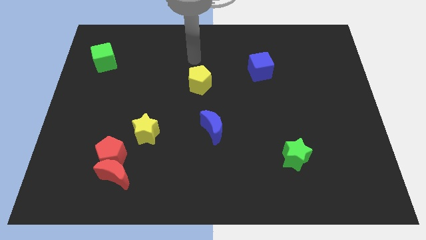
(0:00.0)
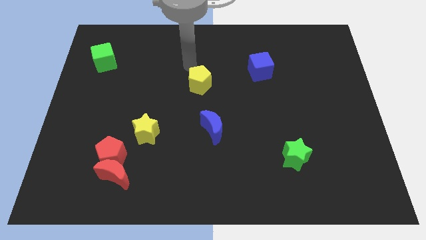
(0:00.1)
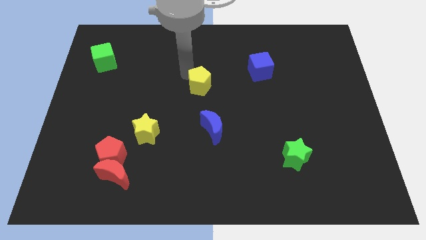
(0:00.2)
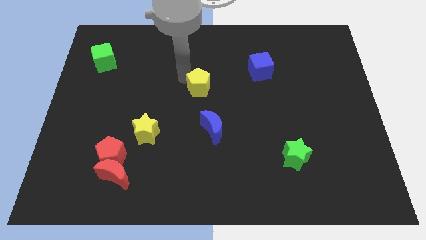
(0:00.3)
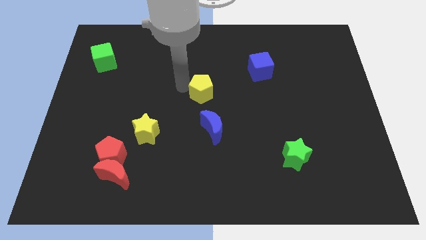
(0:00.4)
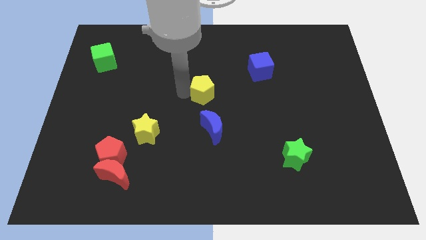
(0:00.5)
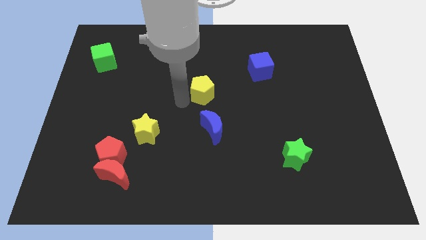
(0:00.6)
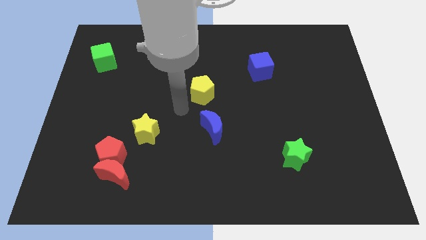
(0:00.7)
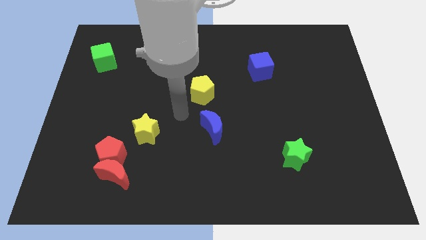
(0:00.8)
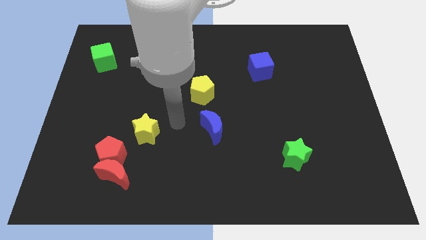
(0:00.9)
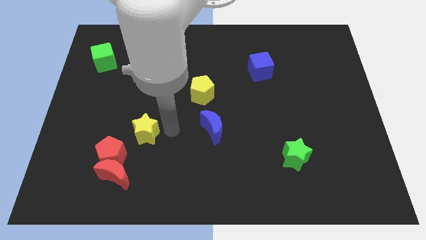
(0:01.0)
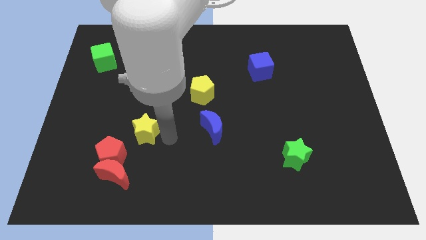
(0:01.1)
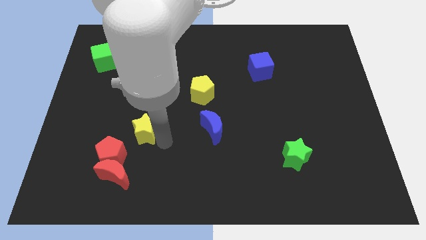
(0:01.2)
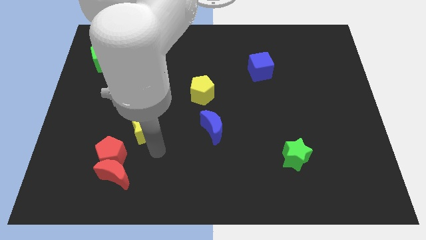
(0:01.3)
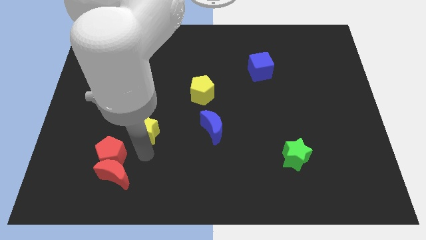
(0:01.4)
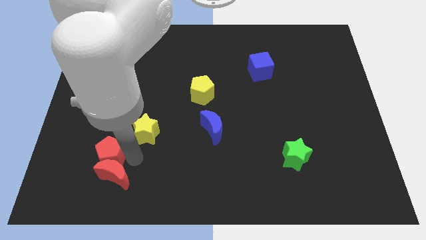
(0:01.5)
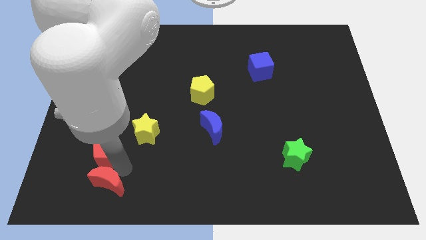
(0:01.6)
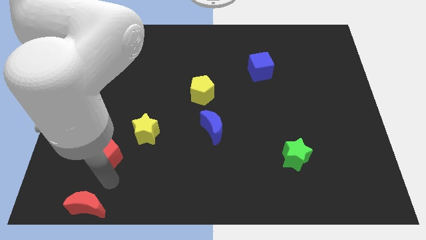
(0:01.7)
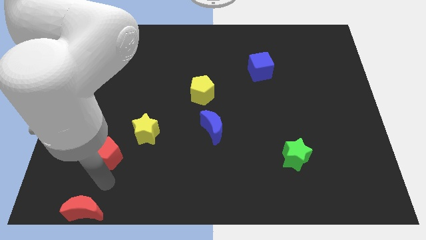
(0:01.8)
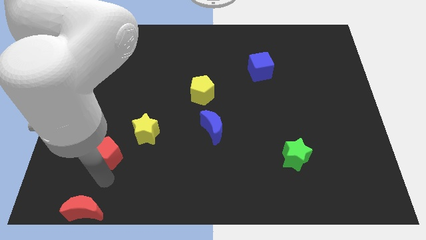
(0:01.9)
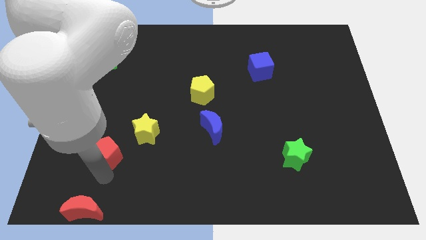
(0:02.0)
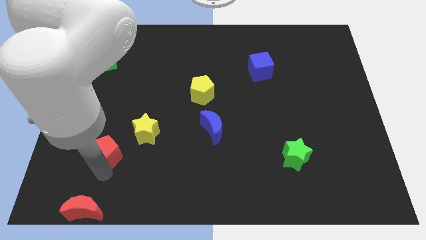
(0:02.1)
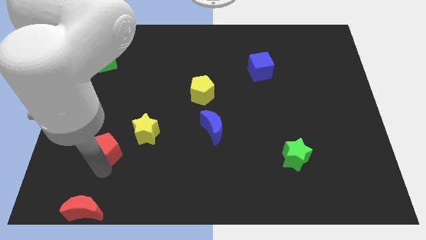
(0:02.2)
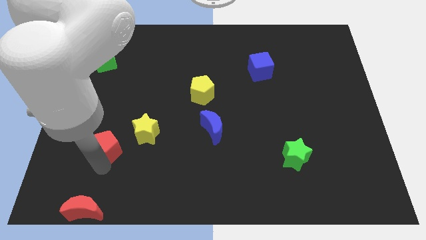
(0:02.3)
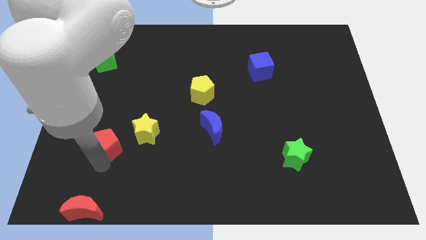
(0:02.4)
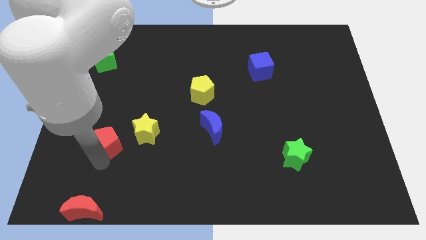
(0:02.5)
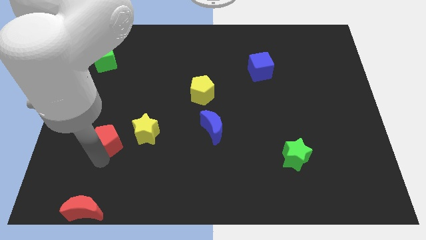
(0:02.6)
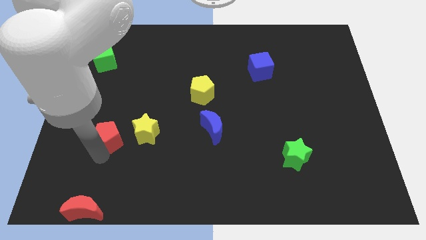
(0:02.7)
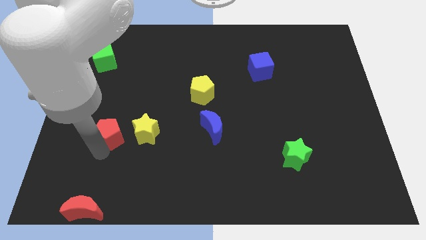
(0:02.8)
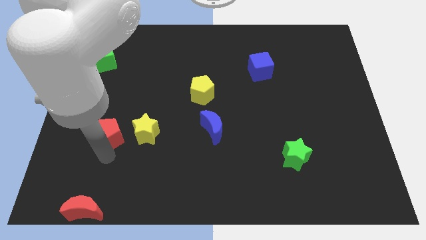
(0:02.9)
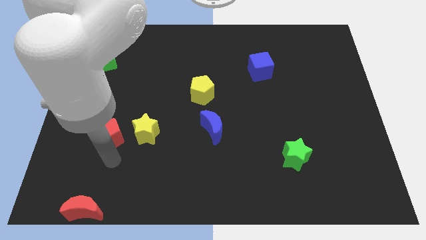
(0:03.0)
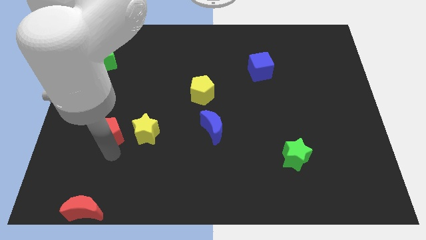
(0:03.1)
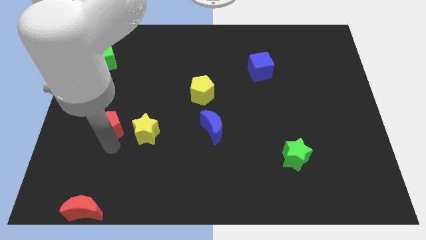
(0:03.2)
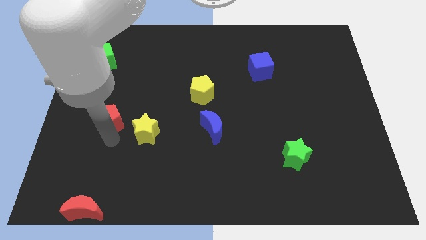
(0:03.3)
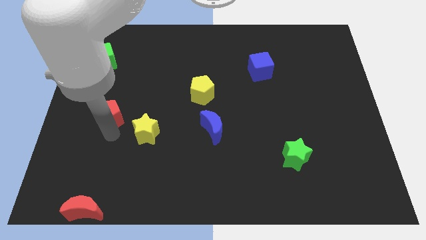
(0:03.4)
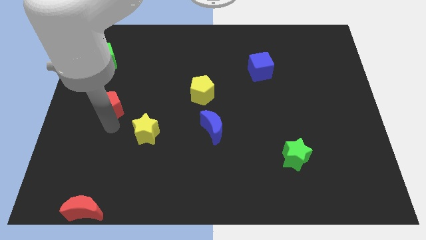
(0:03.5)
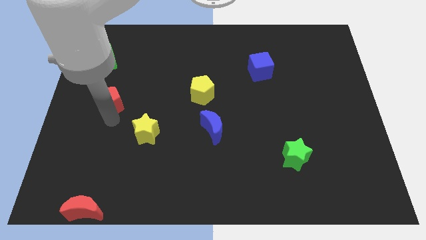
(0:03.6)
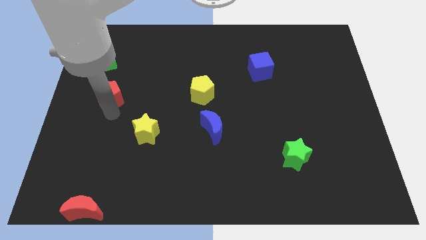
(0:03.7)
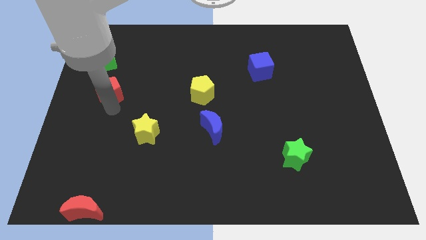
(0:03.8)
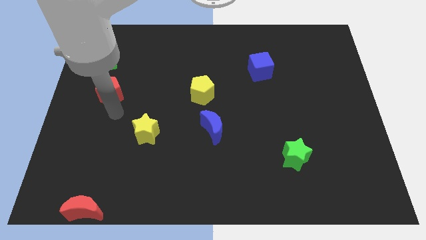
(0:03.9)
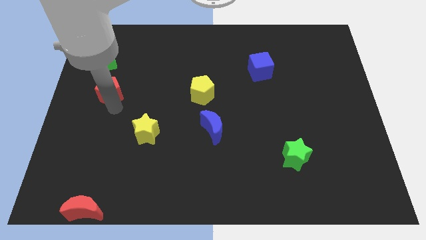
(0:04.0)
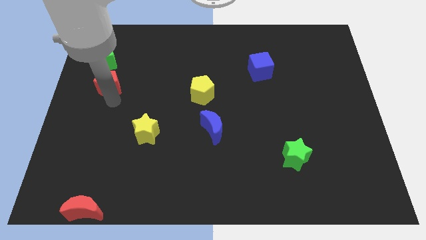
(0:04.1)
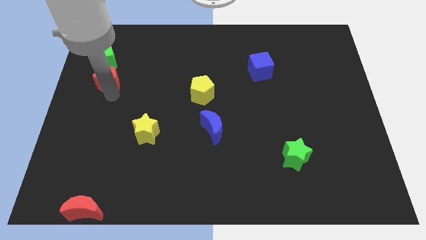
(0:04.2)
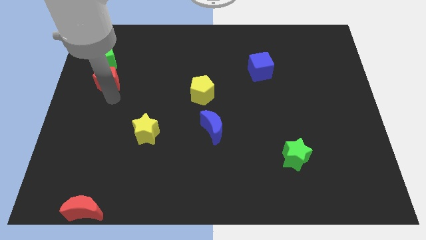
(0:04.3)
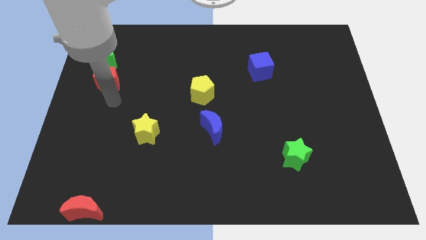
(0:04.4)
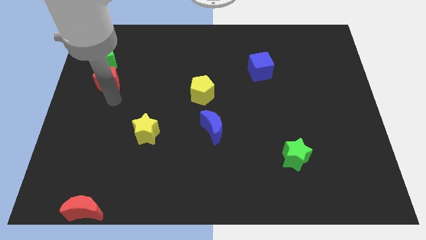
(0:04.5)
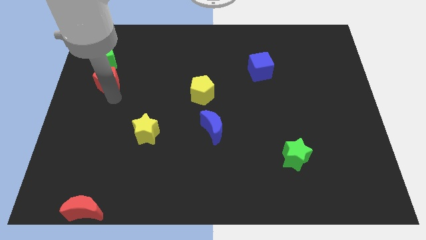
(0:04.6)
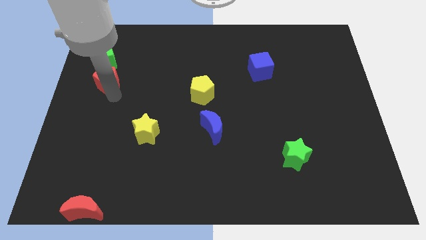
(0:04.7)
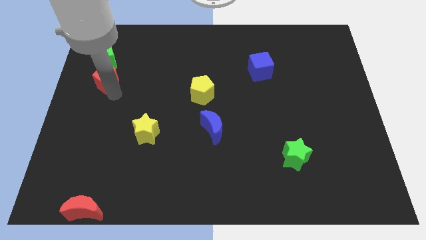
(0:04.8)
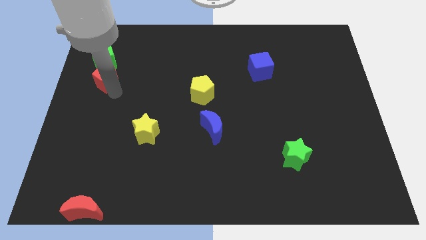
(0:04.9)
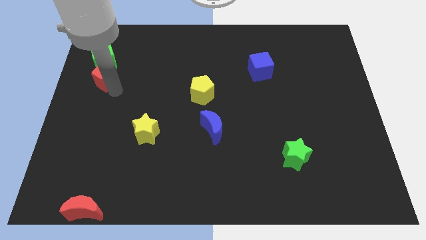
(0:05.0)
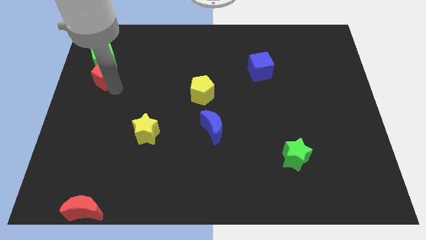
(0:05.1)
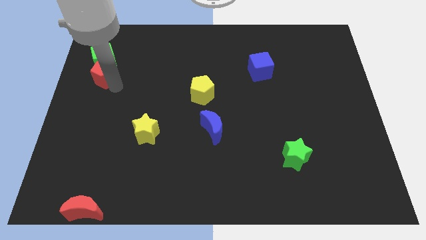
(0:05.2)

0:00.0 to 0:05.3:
slide the red pentagon next to the green cube

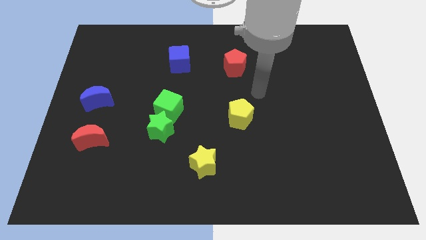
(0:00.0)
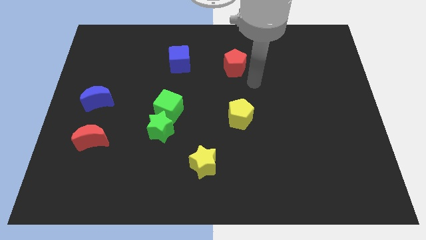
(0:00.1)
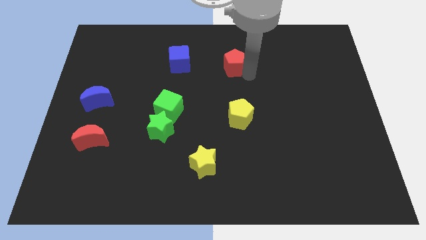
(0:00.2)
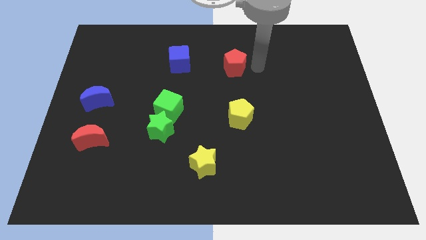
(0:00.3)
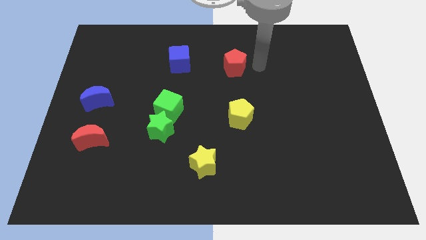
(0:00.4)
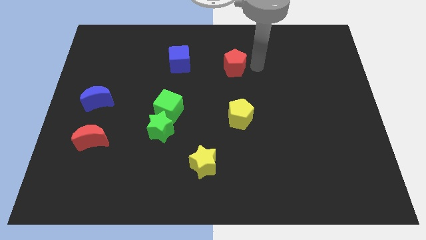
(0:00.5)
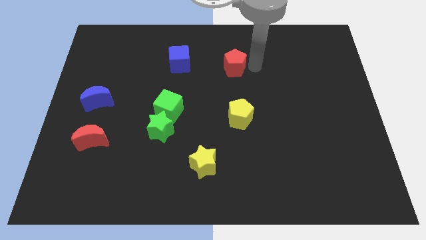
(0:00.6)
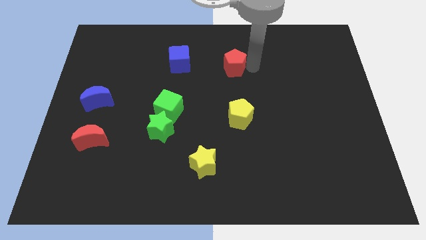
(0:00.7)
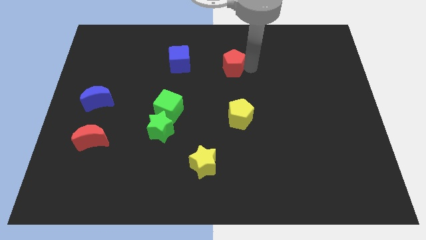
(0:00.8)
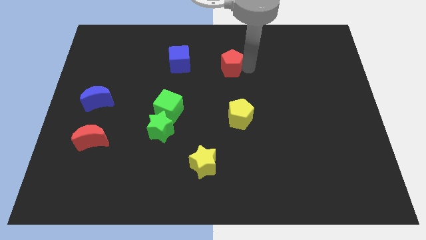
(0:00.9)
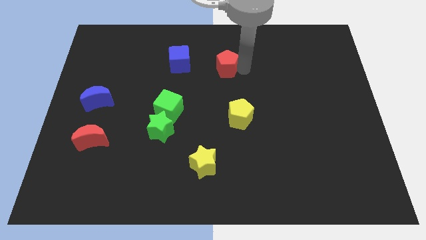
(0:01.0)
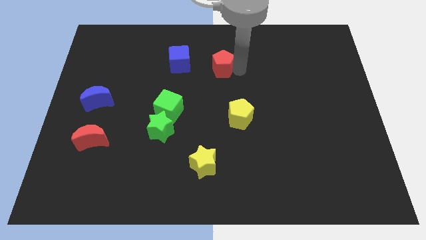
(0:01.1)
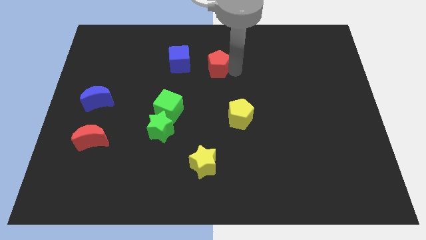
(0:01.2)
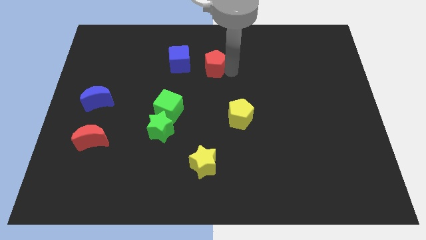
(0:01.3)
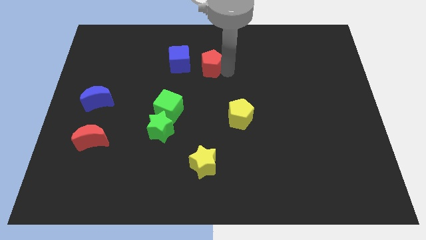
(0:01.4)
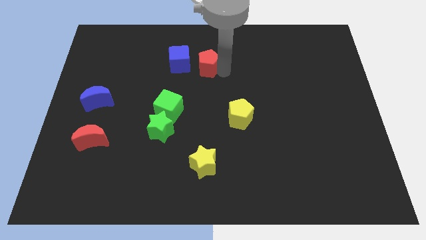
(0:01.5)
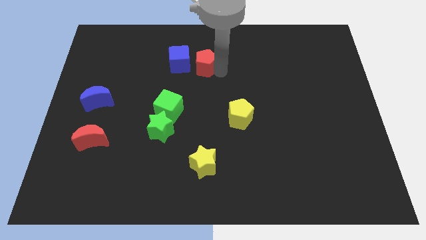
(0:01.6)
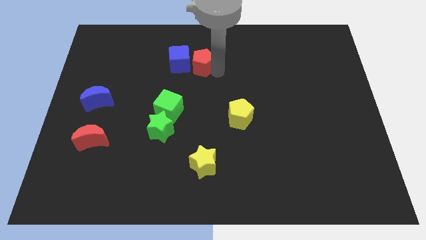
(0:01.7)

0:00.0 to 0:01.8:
move the red pentagon to the blue cube
